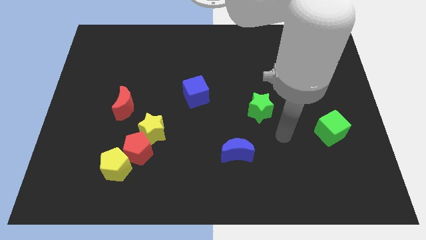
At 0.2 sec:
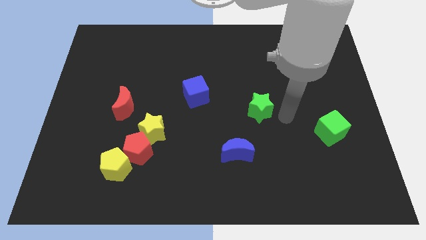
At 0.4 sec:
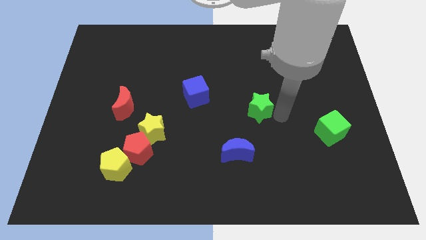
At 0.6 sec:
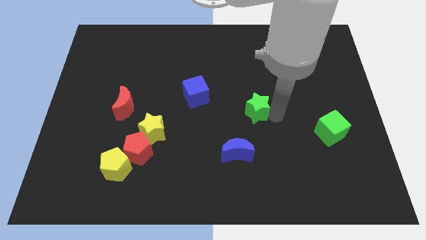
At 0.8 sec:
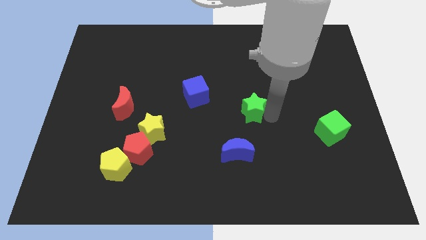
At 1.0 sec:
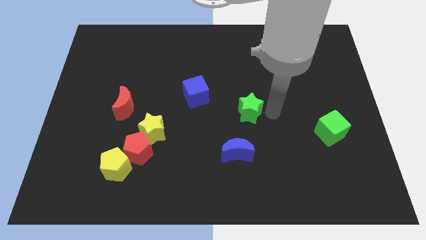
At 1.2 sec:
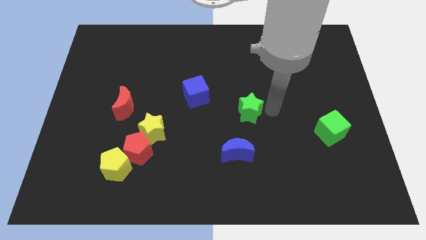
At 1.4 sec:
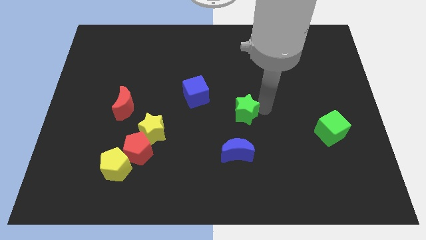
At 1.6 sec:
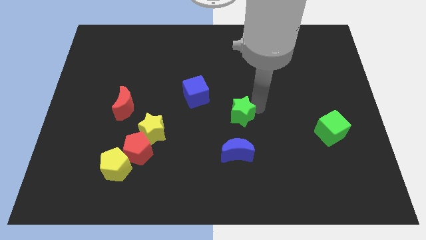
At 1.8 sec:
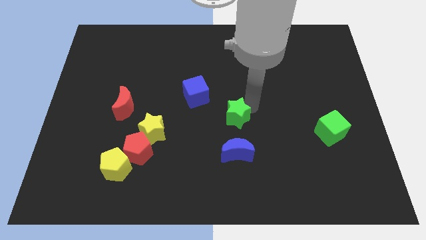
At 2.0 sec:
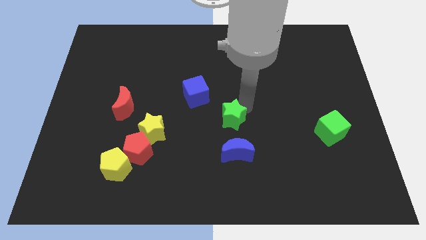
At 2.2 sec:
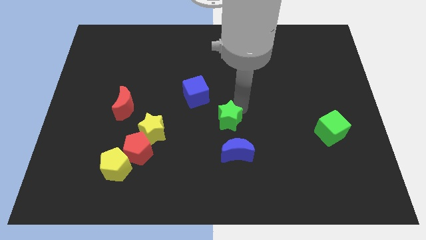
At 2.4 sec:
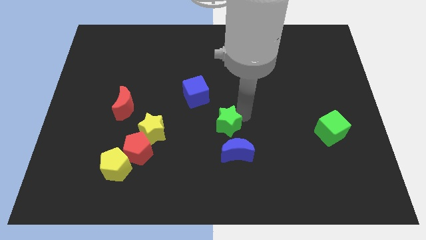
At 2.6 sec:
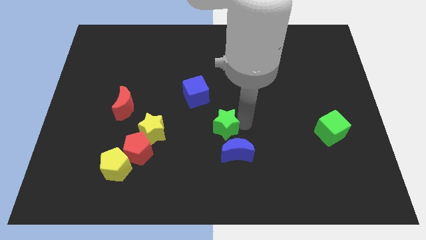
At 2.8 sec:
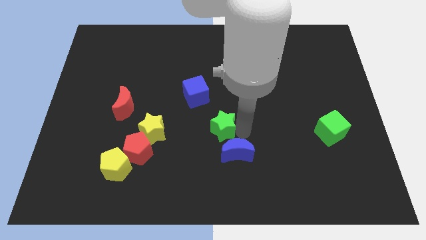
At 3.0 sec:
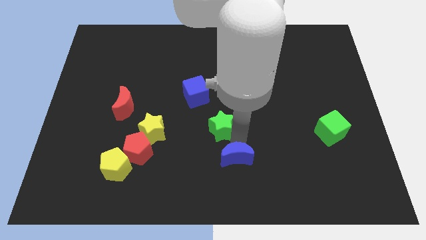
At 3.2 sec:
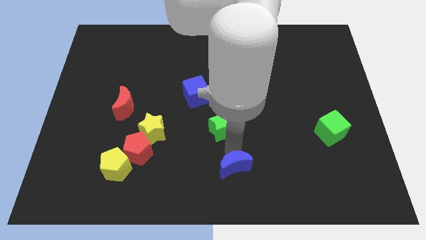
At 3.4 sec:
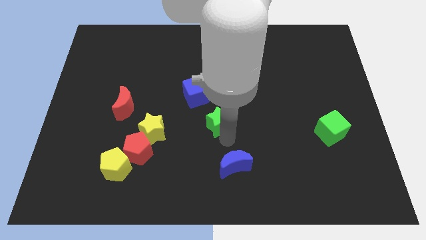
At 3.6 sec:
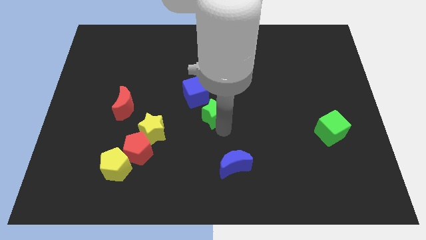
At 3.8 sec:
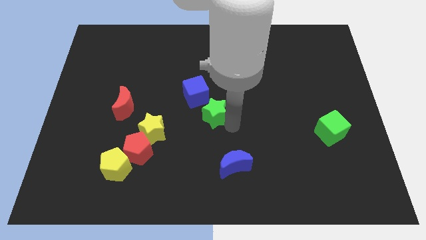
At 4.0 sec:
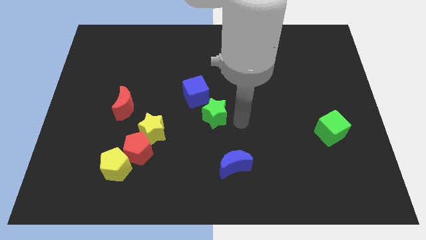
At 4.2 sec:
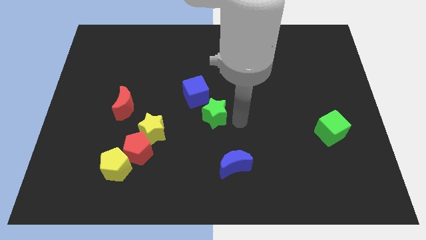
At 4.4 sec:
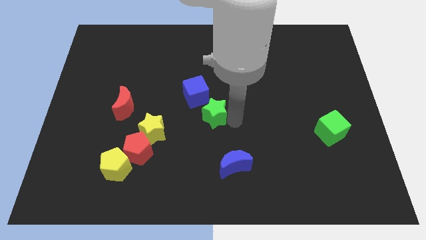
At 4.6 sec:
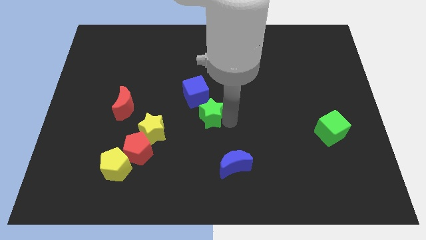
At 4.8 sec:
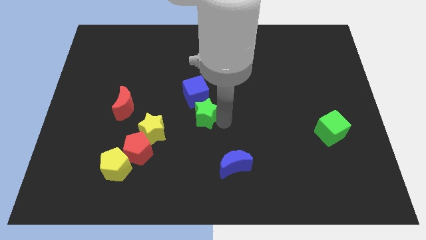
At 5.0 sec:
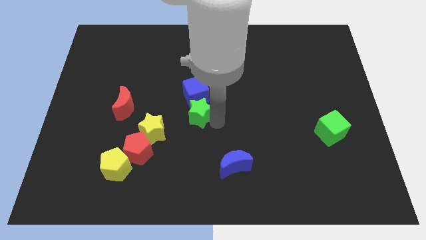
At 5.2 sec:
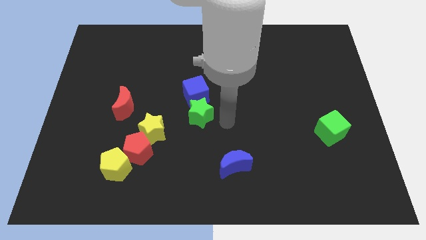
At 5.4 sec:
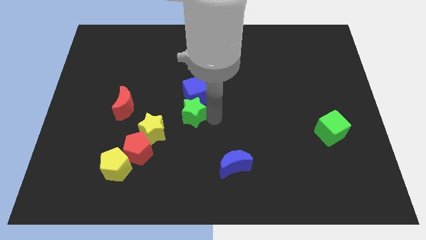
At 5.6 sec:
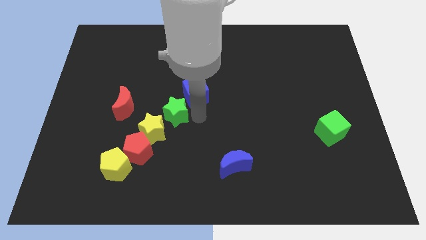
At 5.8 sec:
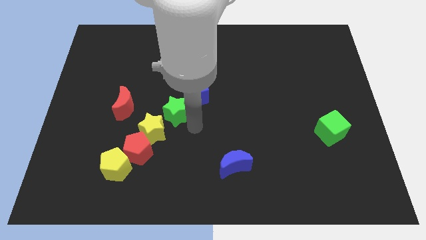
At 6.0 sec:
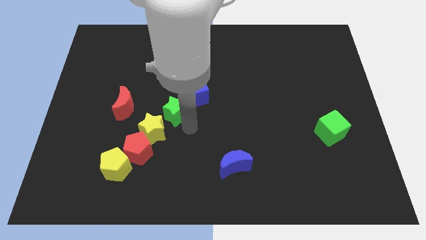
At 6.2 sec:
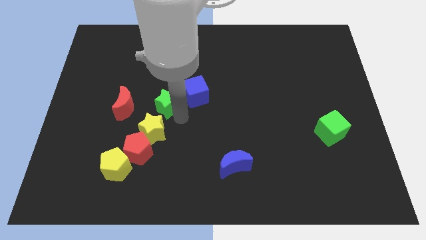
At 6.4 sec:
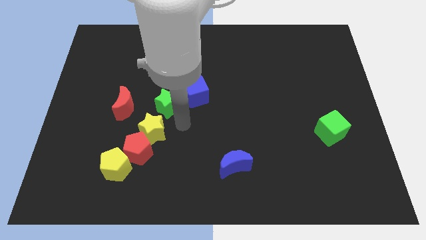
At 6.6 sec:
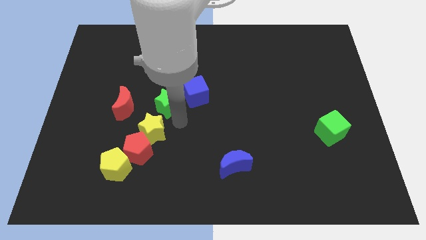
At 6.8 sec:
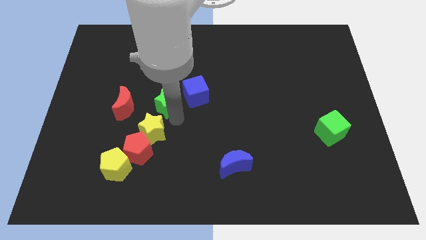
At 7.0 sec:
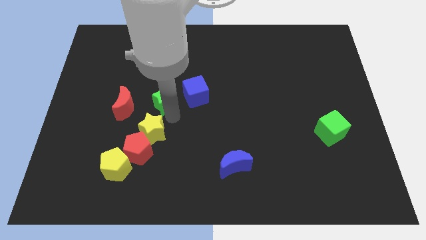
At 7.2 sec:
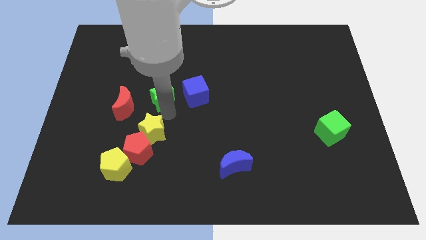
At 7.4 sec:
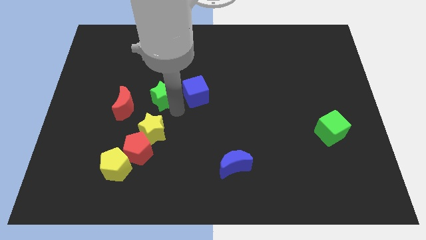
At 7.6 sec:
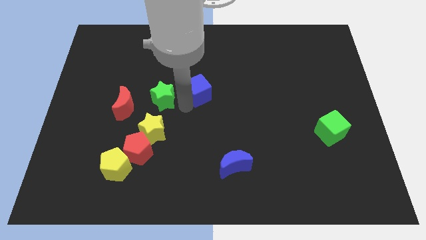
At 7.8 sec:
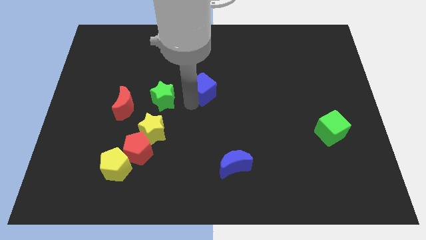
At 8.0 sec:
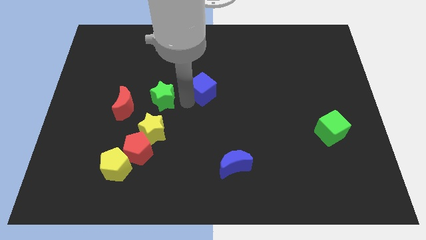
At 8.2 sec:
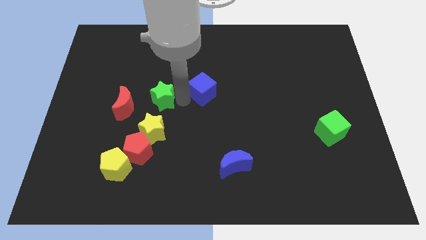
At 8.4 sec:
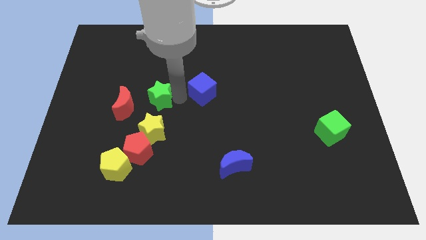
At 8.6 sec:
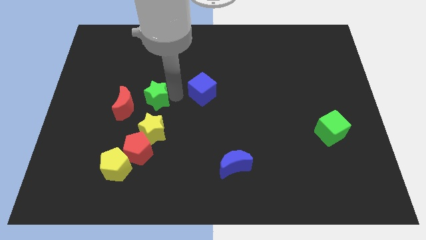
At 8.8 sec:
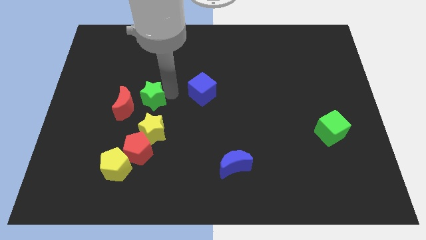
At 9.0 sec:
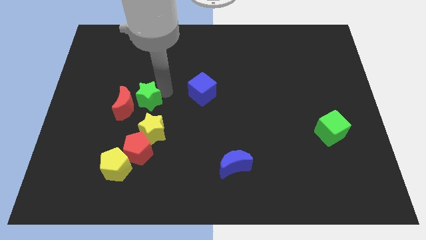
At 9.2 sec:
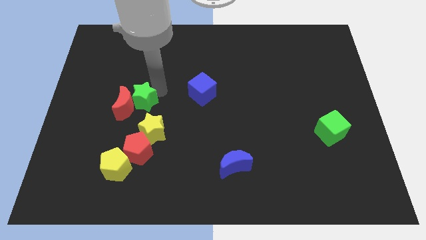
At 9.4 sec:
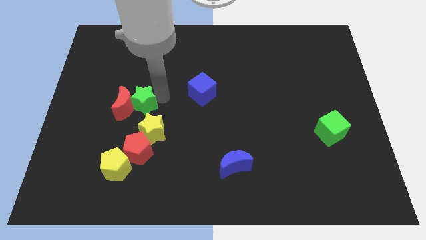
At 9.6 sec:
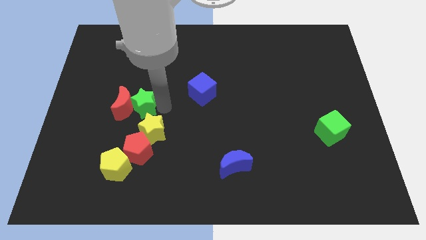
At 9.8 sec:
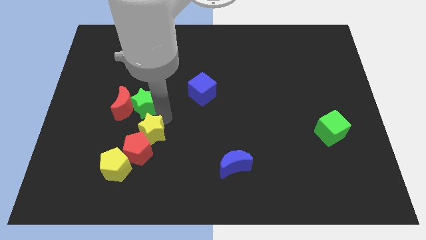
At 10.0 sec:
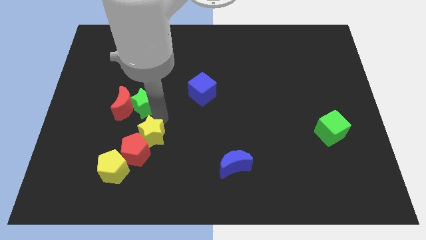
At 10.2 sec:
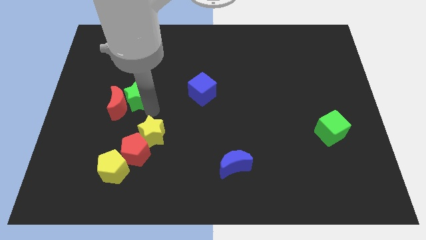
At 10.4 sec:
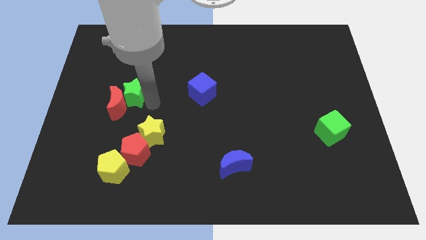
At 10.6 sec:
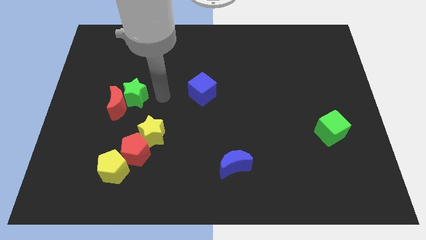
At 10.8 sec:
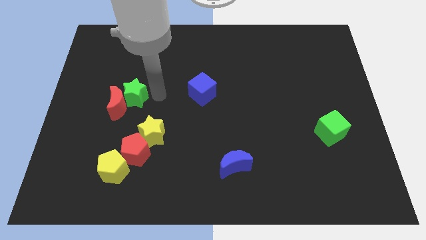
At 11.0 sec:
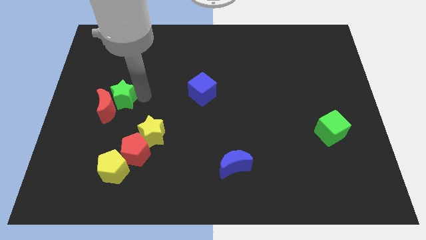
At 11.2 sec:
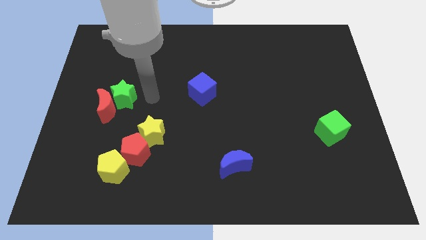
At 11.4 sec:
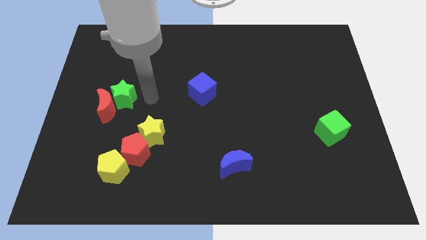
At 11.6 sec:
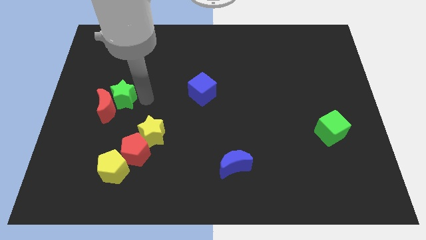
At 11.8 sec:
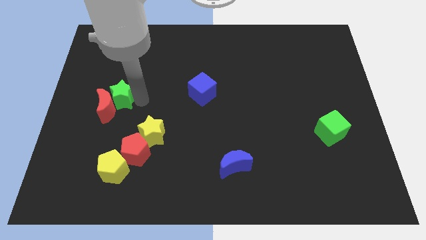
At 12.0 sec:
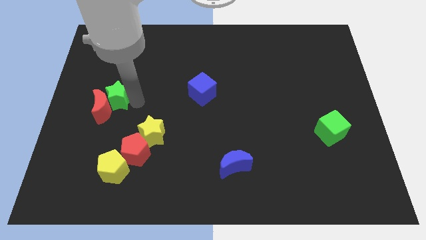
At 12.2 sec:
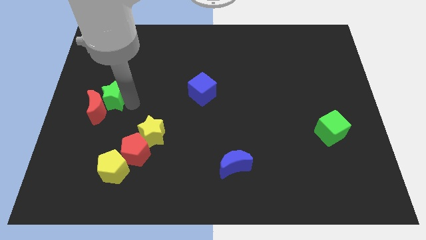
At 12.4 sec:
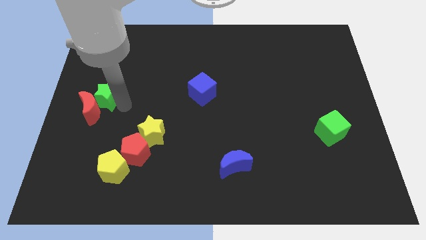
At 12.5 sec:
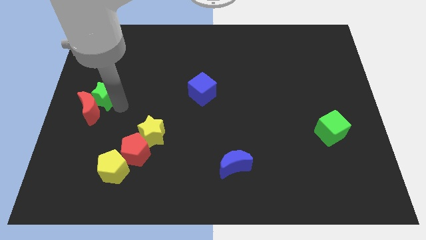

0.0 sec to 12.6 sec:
put the green star to the left side of the board
